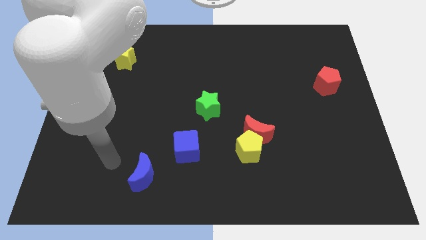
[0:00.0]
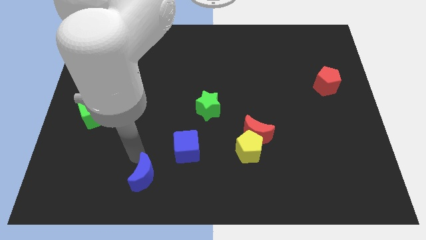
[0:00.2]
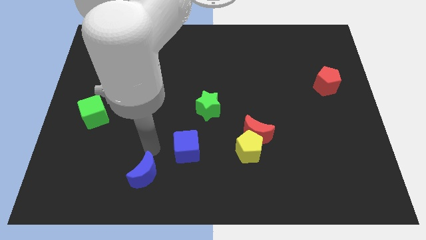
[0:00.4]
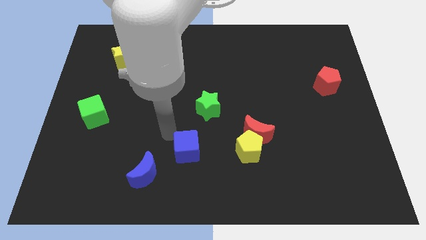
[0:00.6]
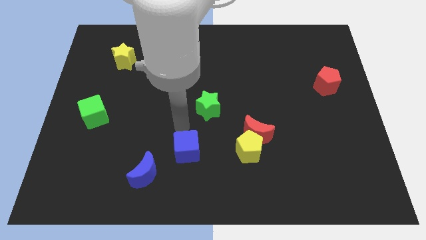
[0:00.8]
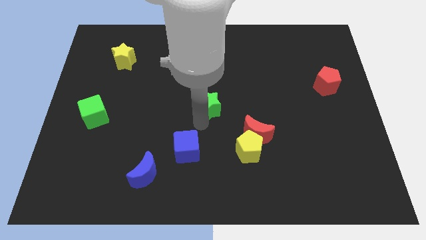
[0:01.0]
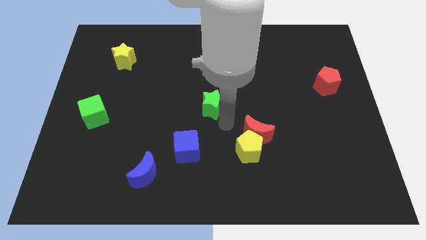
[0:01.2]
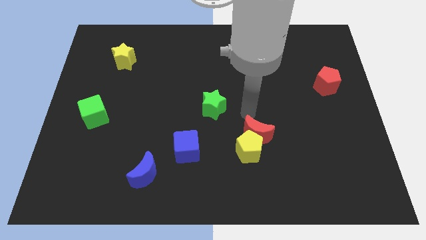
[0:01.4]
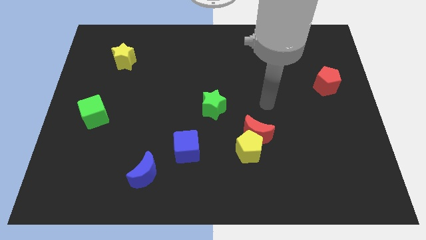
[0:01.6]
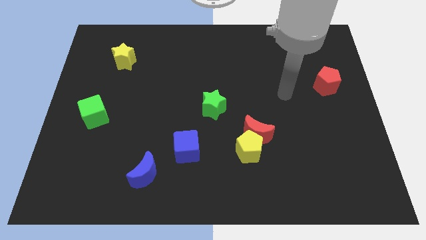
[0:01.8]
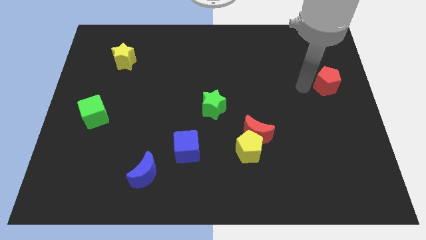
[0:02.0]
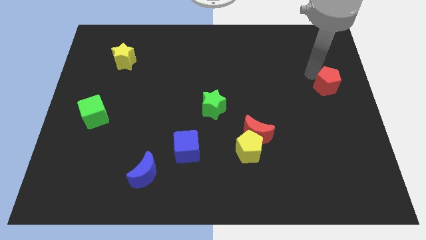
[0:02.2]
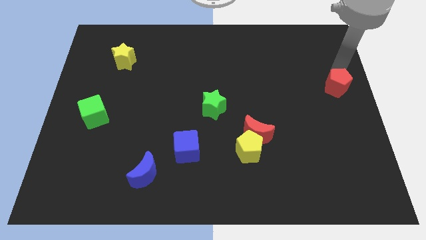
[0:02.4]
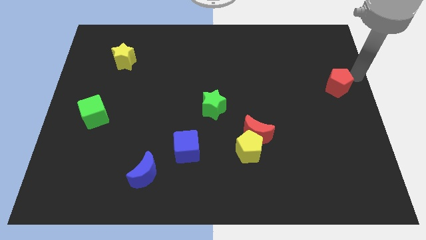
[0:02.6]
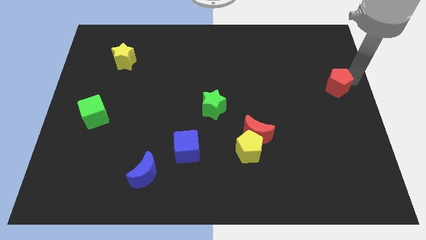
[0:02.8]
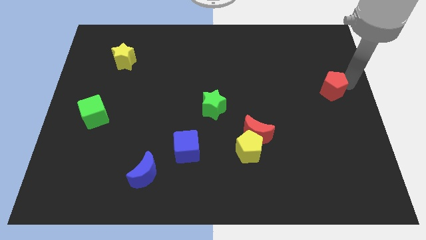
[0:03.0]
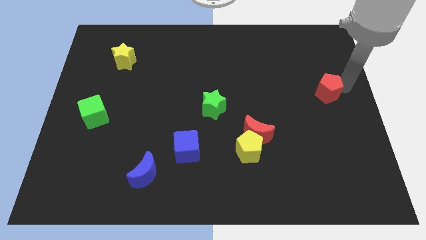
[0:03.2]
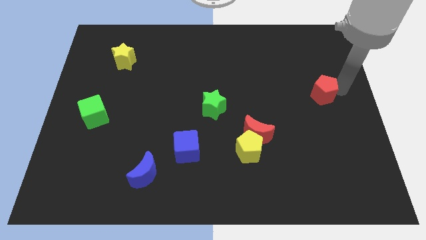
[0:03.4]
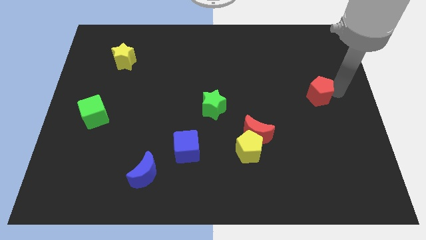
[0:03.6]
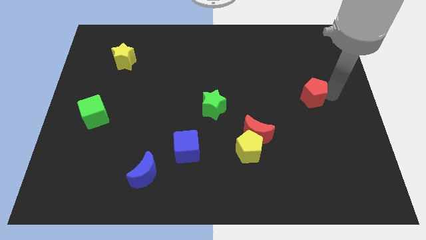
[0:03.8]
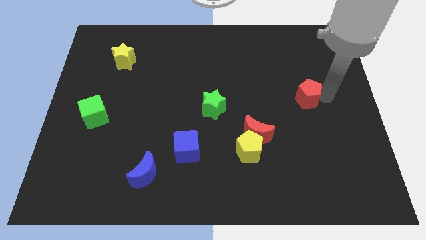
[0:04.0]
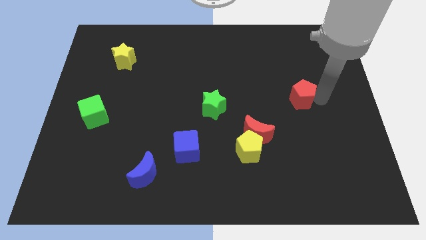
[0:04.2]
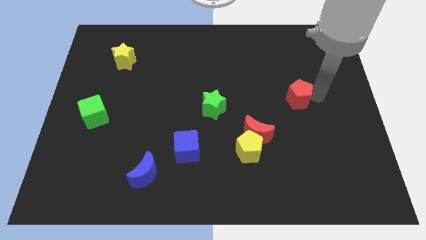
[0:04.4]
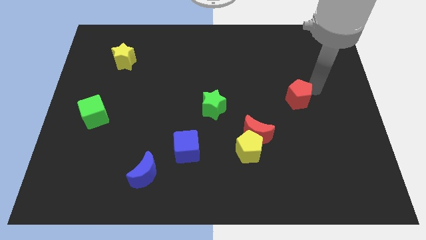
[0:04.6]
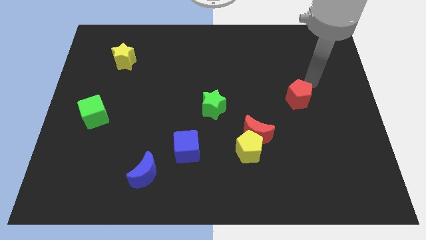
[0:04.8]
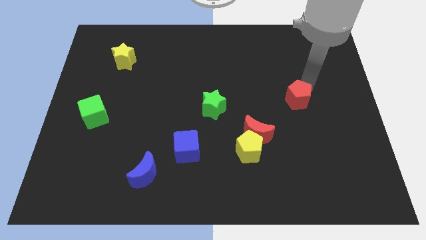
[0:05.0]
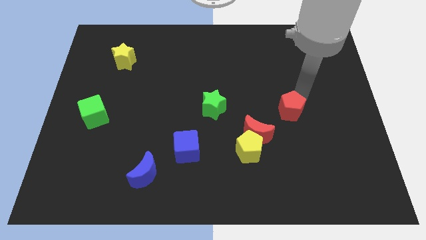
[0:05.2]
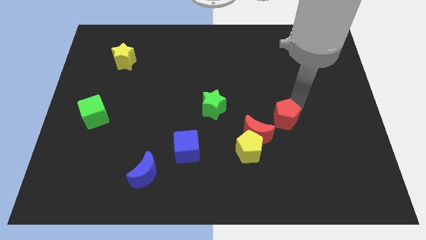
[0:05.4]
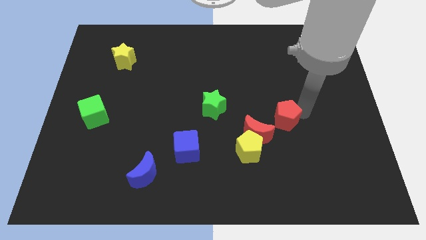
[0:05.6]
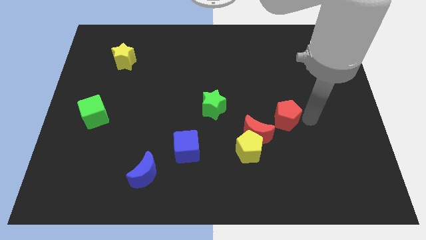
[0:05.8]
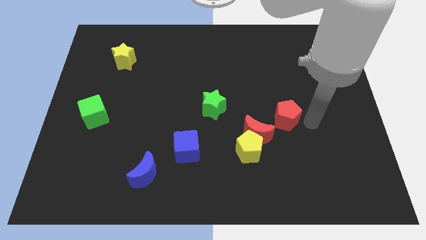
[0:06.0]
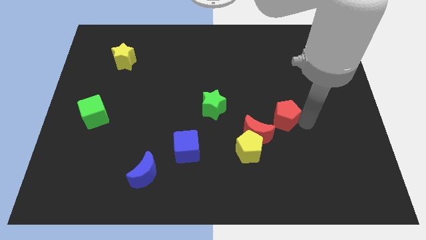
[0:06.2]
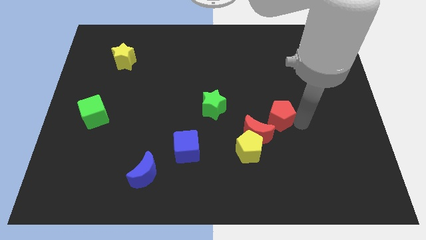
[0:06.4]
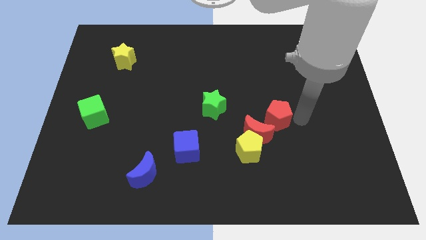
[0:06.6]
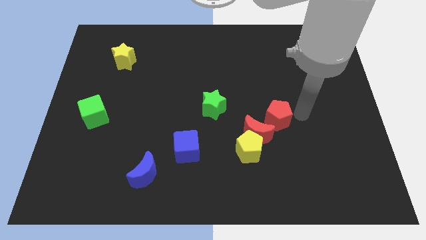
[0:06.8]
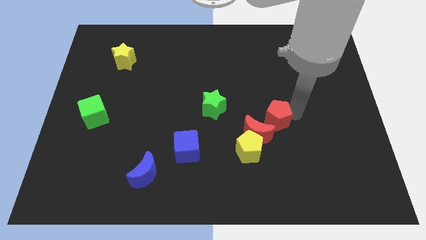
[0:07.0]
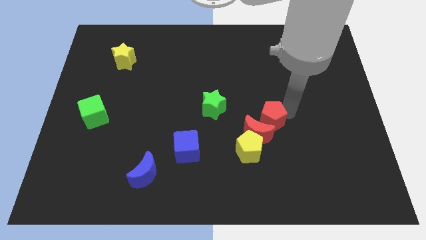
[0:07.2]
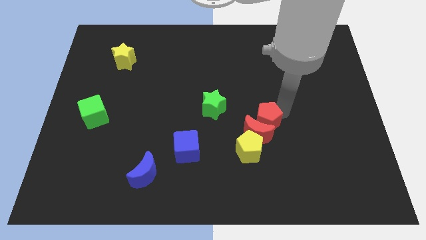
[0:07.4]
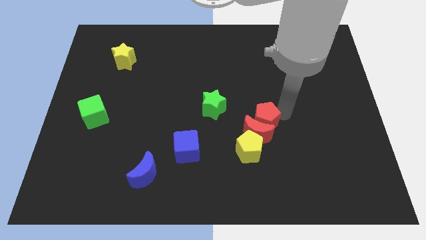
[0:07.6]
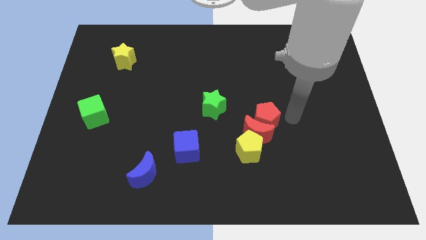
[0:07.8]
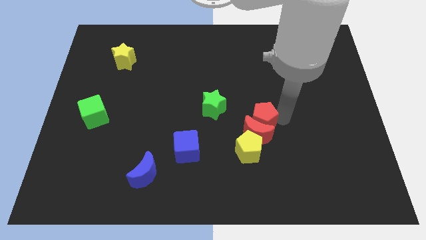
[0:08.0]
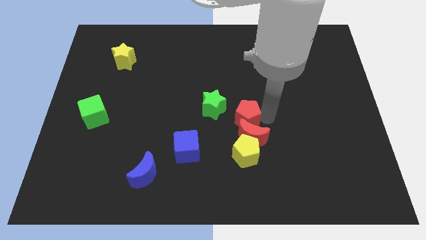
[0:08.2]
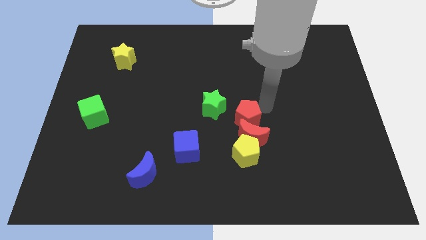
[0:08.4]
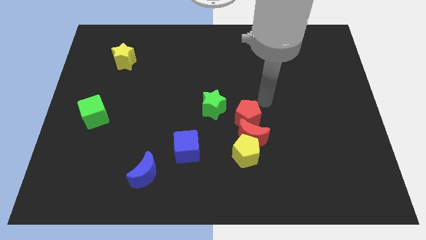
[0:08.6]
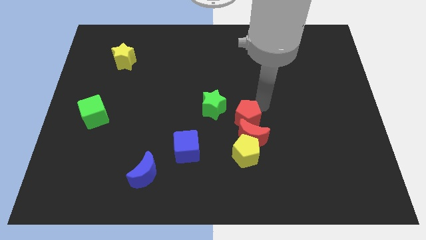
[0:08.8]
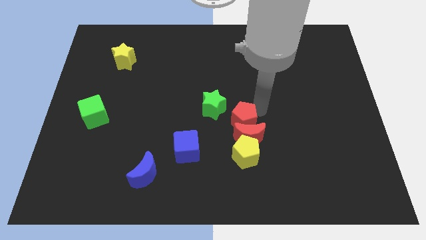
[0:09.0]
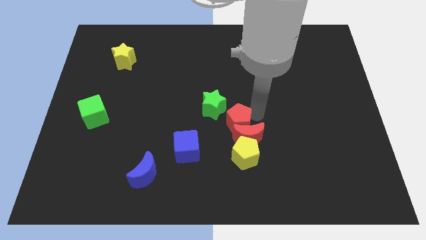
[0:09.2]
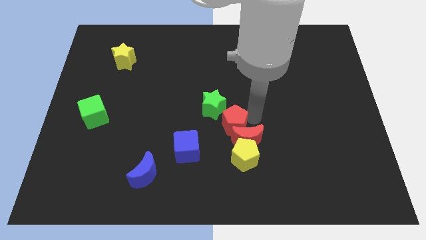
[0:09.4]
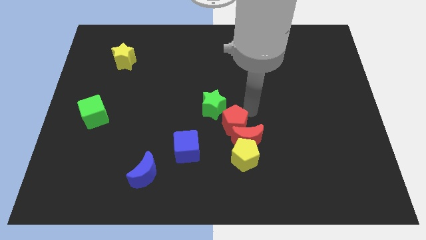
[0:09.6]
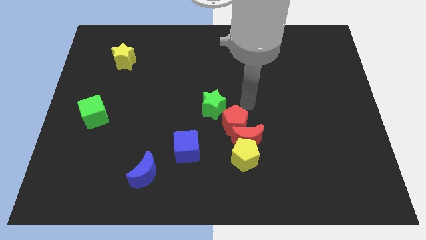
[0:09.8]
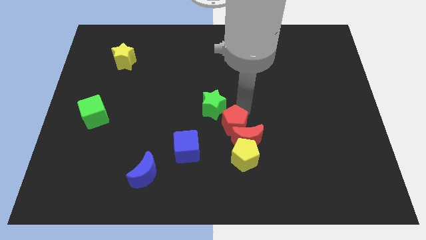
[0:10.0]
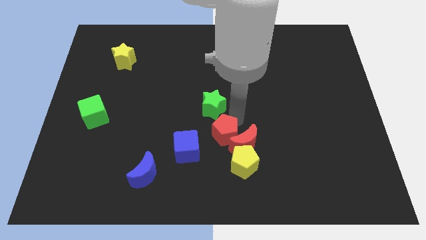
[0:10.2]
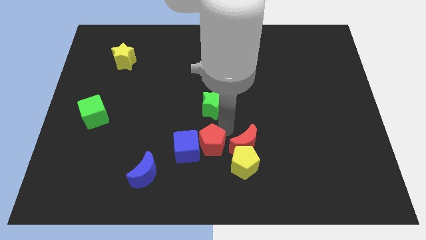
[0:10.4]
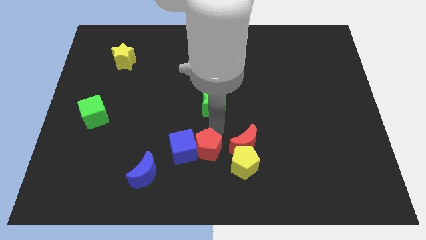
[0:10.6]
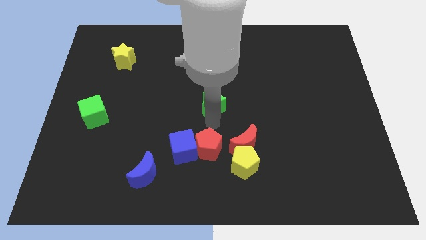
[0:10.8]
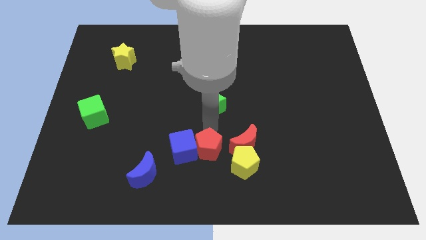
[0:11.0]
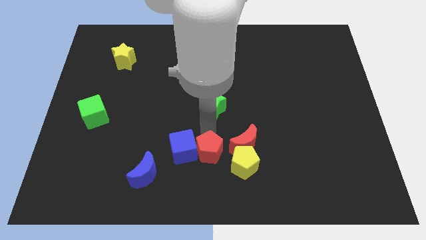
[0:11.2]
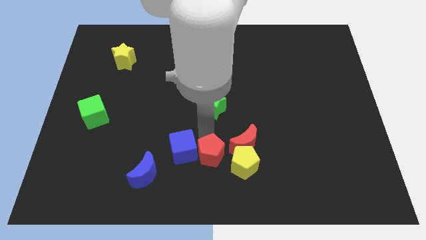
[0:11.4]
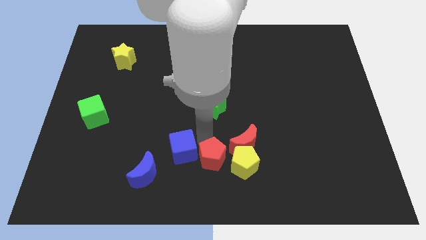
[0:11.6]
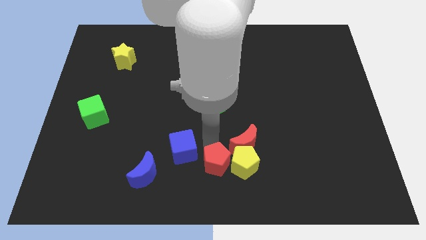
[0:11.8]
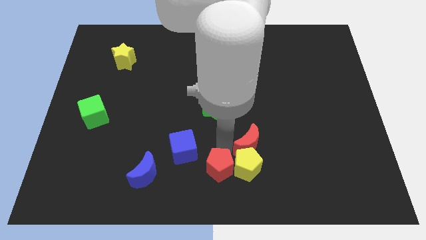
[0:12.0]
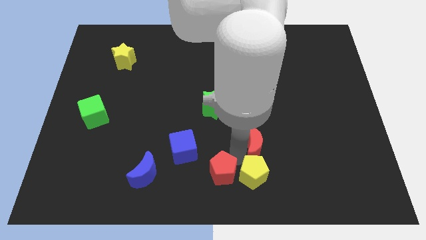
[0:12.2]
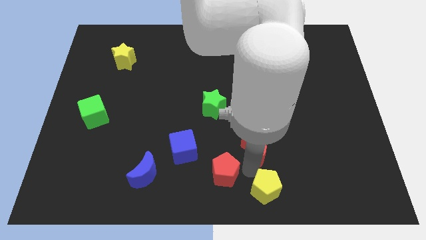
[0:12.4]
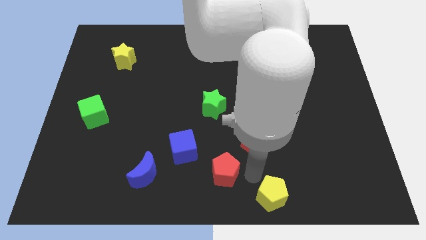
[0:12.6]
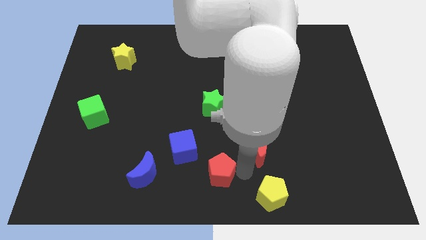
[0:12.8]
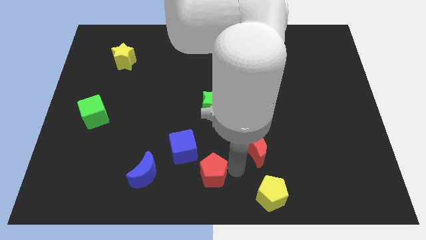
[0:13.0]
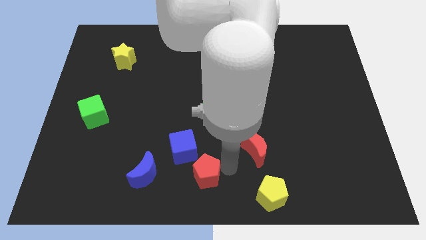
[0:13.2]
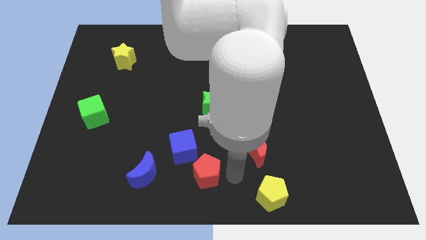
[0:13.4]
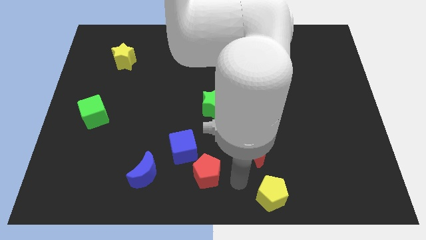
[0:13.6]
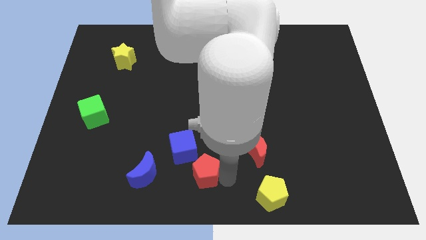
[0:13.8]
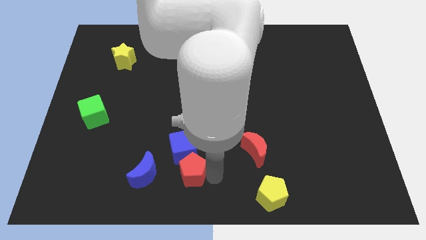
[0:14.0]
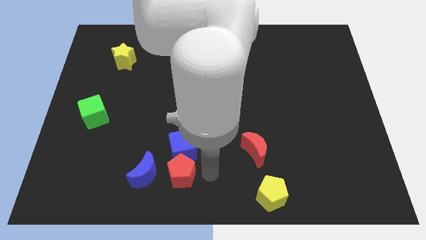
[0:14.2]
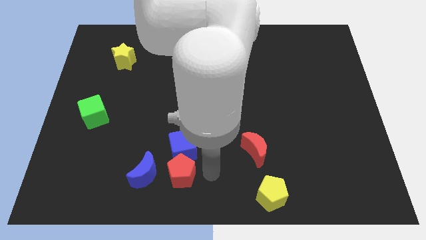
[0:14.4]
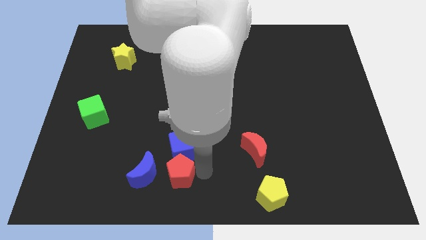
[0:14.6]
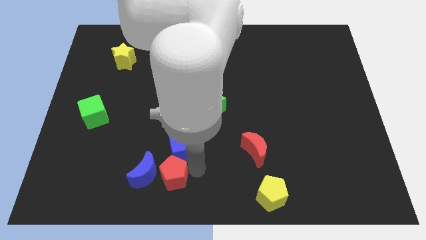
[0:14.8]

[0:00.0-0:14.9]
move the red pentagon to the blue moon
